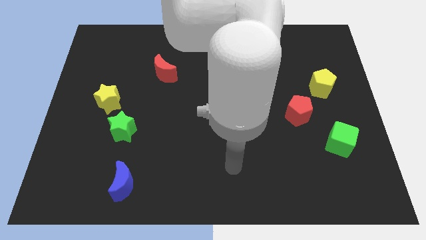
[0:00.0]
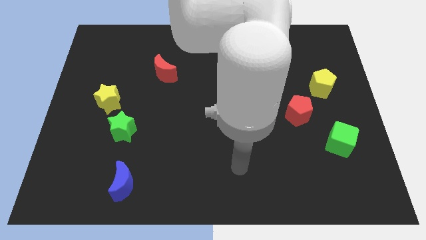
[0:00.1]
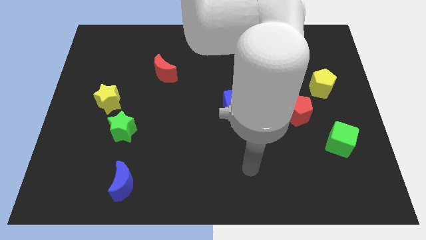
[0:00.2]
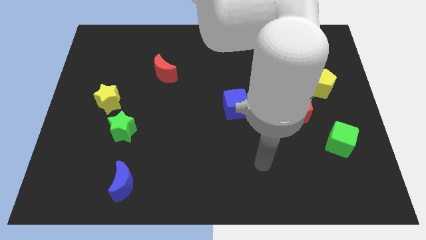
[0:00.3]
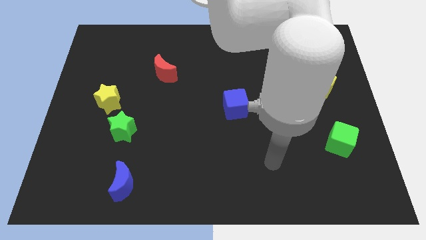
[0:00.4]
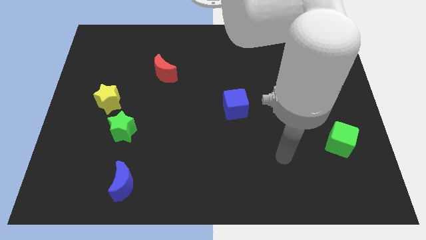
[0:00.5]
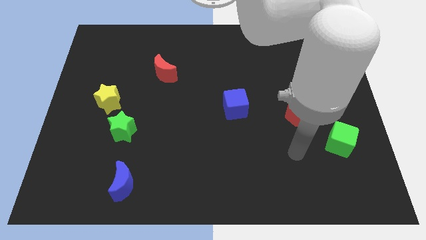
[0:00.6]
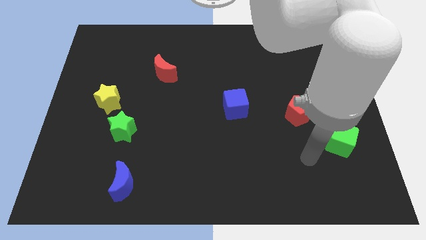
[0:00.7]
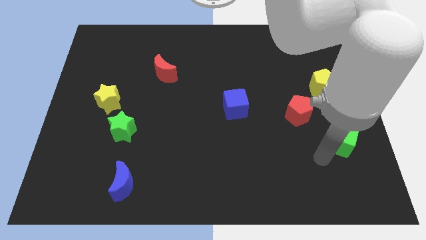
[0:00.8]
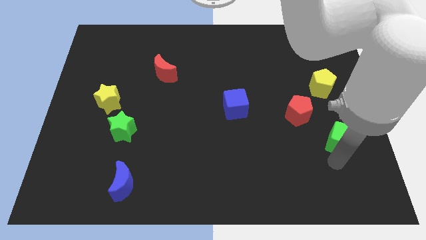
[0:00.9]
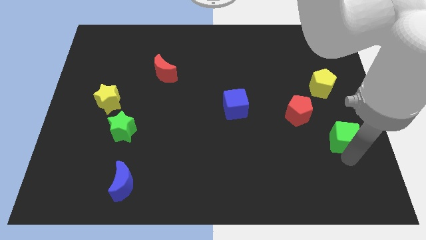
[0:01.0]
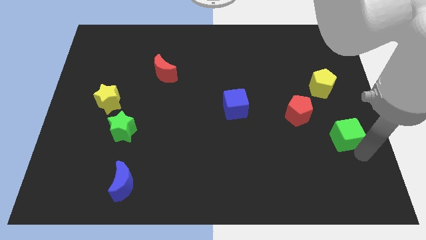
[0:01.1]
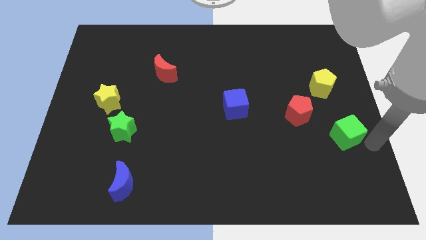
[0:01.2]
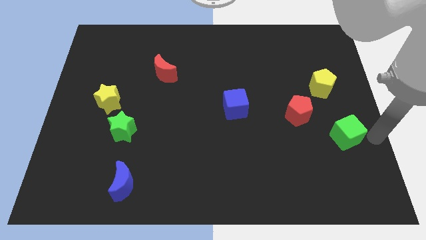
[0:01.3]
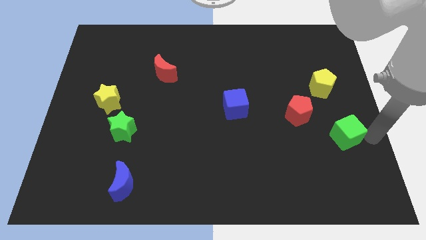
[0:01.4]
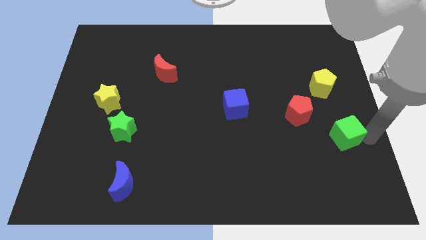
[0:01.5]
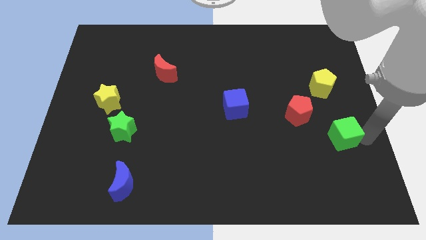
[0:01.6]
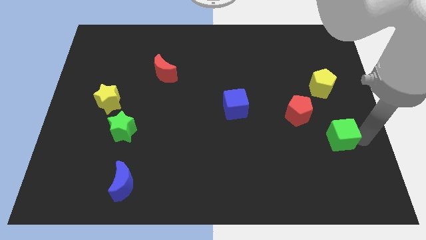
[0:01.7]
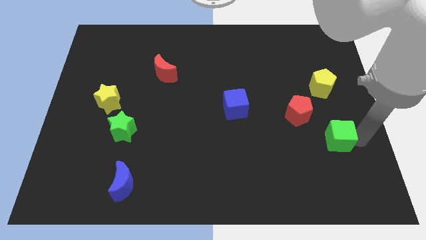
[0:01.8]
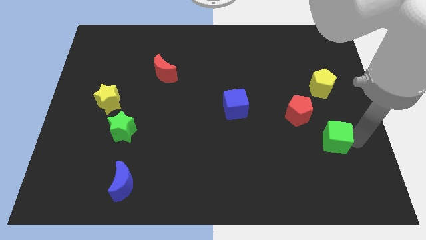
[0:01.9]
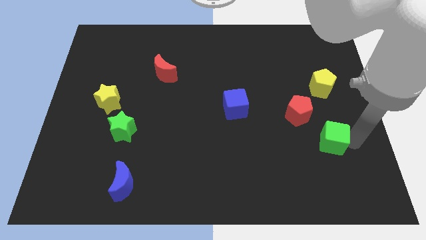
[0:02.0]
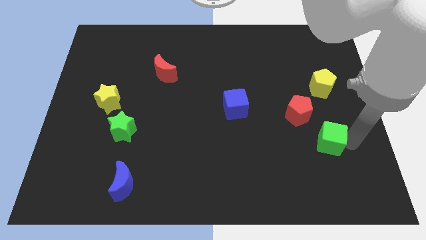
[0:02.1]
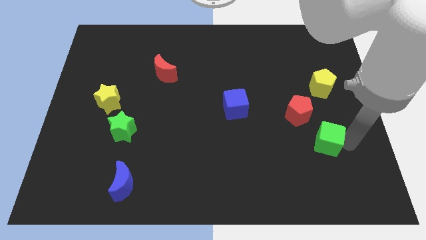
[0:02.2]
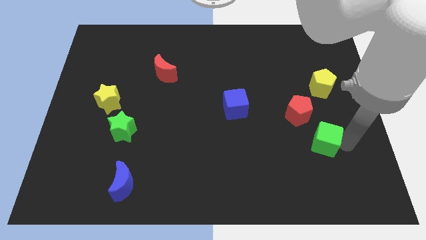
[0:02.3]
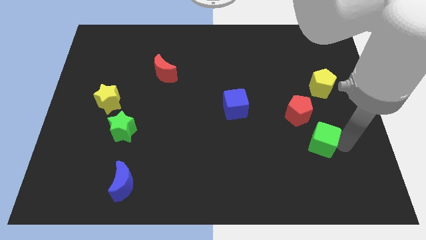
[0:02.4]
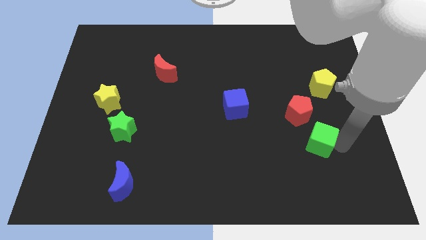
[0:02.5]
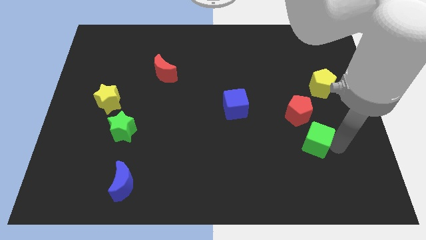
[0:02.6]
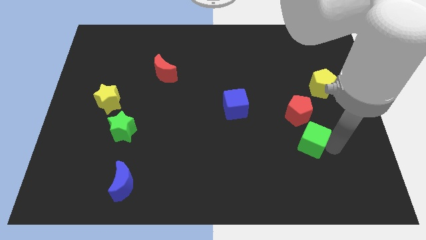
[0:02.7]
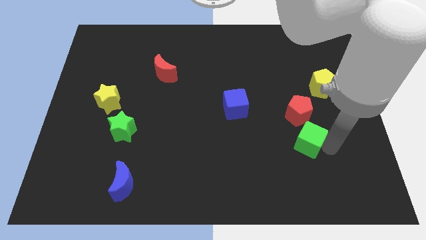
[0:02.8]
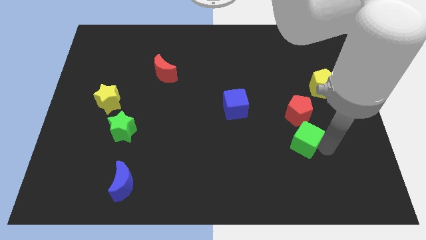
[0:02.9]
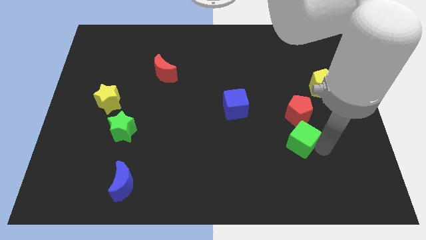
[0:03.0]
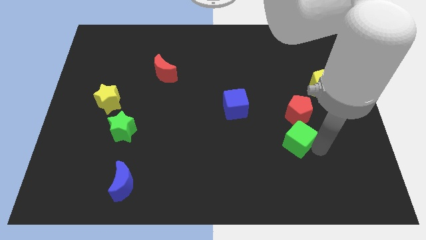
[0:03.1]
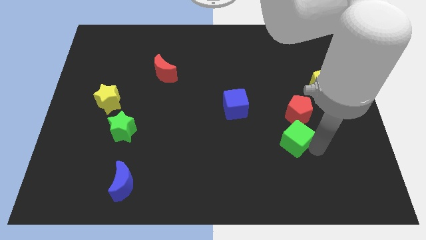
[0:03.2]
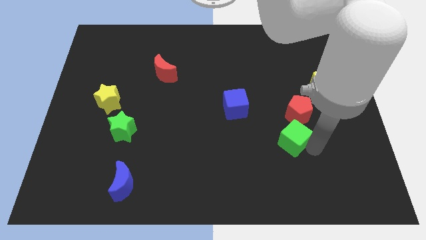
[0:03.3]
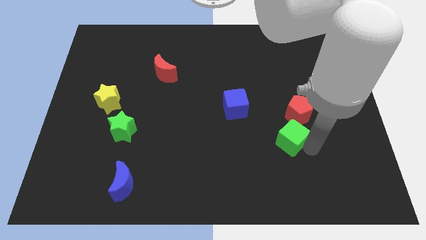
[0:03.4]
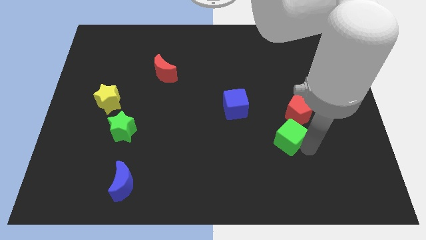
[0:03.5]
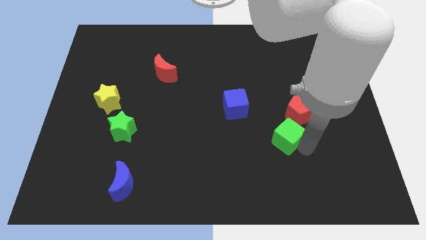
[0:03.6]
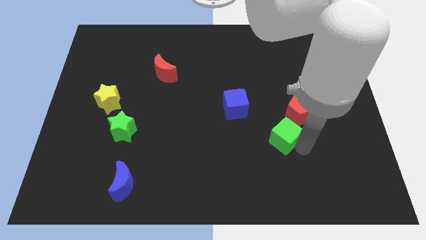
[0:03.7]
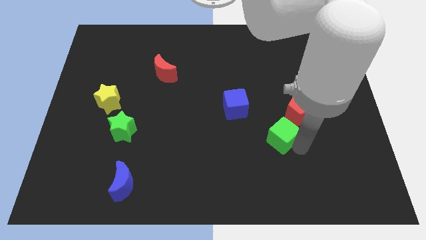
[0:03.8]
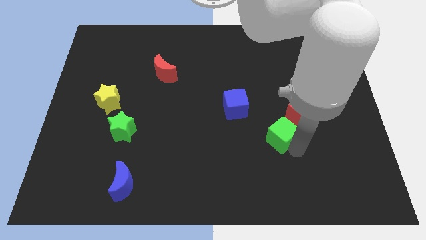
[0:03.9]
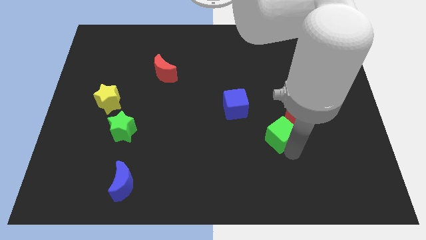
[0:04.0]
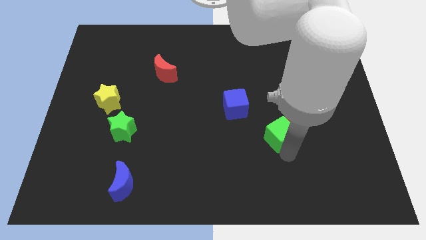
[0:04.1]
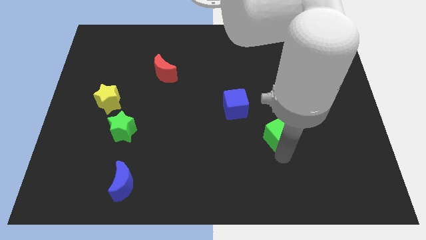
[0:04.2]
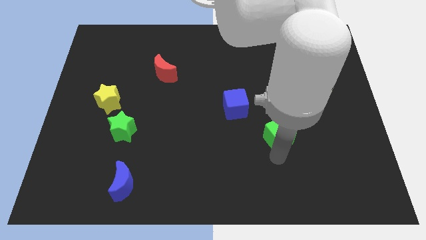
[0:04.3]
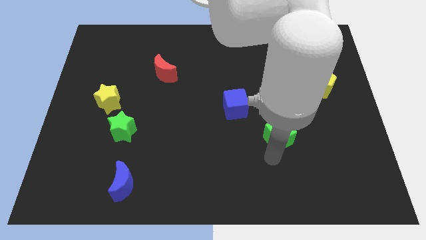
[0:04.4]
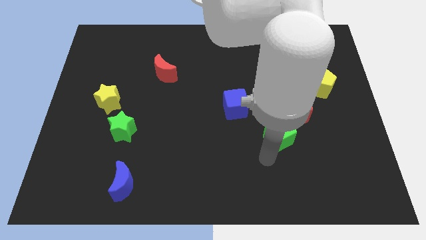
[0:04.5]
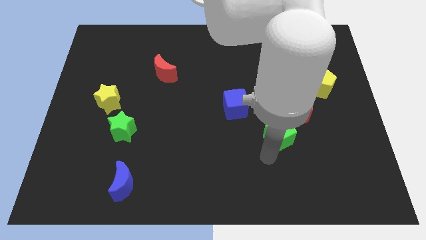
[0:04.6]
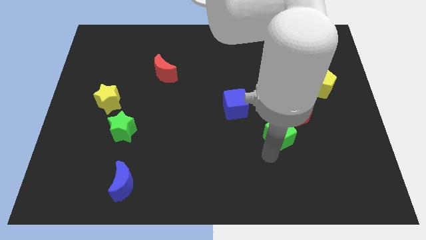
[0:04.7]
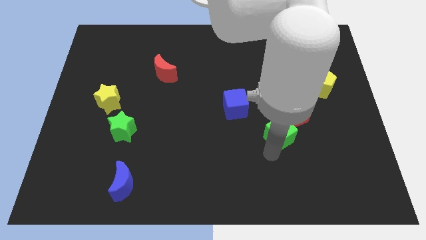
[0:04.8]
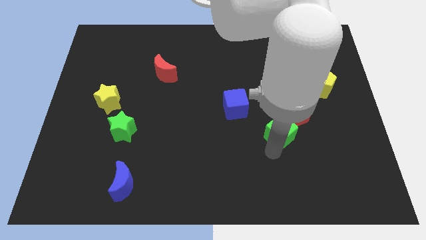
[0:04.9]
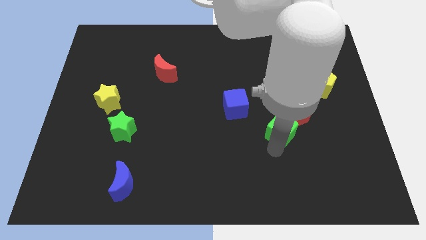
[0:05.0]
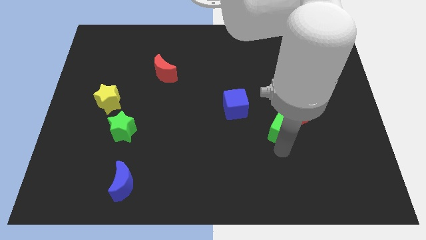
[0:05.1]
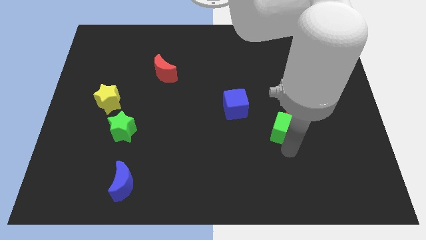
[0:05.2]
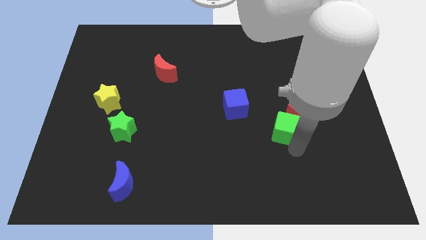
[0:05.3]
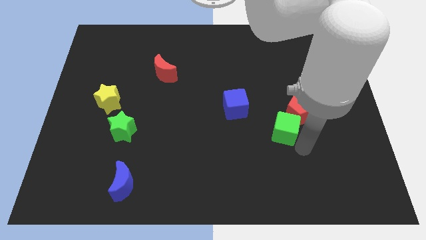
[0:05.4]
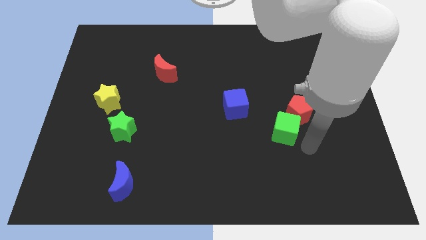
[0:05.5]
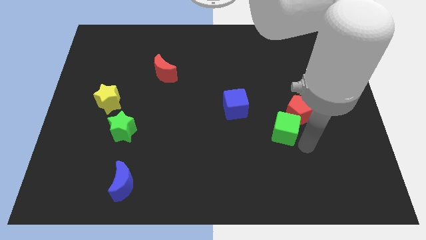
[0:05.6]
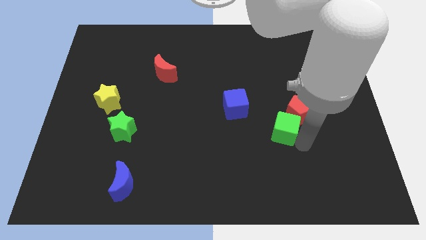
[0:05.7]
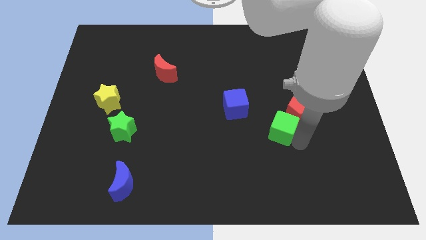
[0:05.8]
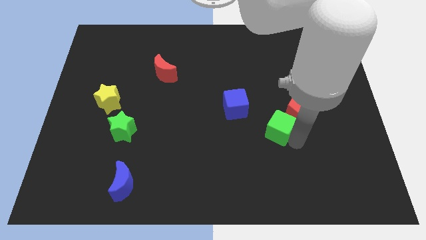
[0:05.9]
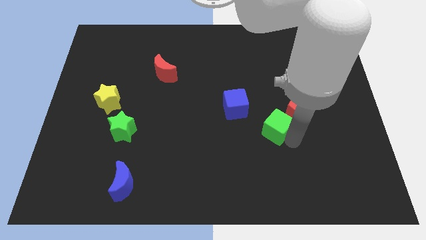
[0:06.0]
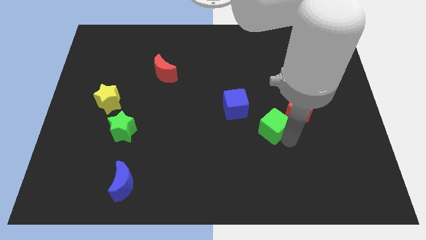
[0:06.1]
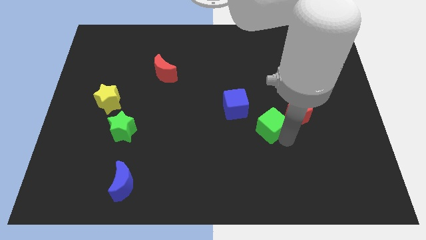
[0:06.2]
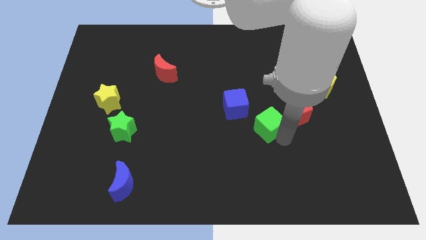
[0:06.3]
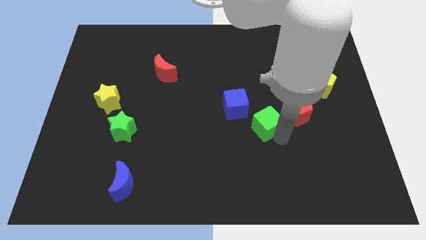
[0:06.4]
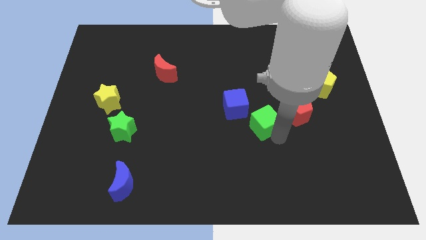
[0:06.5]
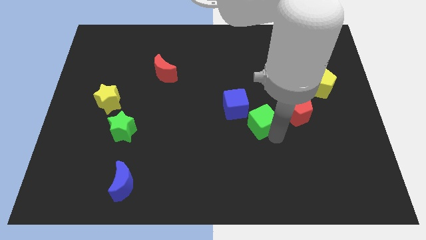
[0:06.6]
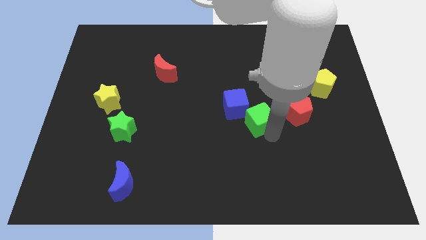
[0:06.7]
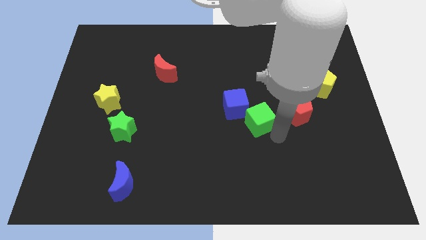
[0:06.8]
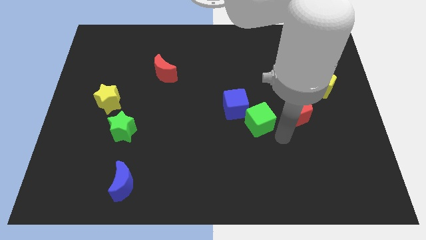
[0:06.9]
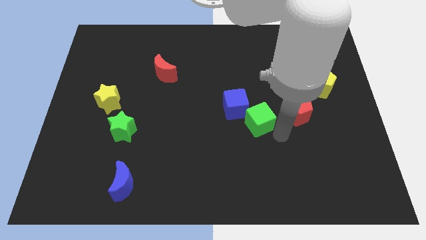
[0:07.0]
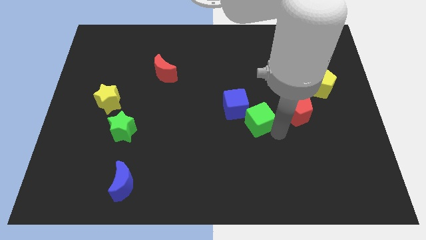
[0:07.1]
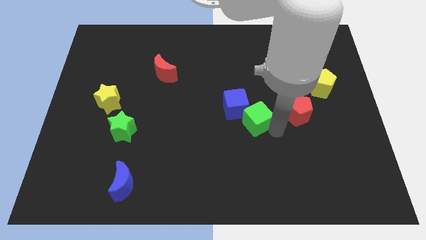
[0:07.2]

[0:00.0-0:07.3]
move the green cube to the blue cube
